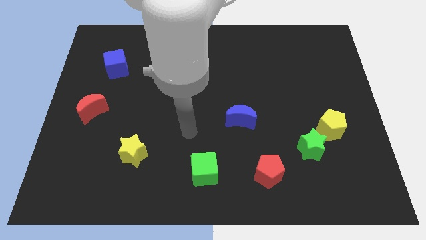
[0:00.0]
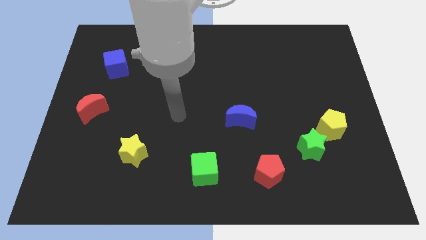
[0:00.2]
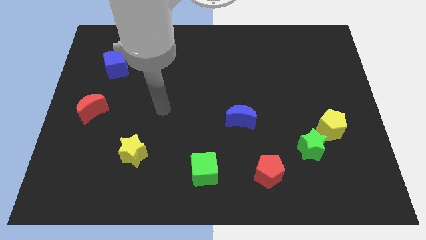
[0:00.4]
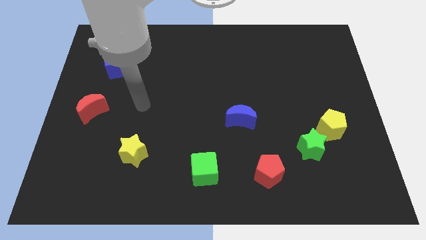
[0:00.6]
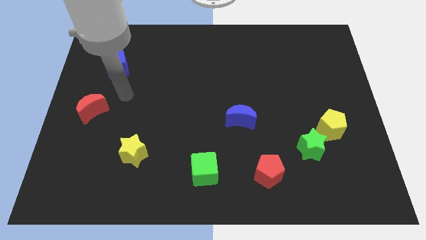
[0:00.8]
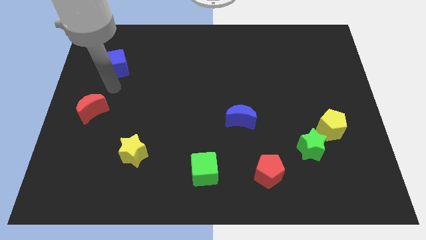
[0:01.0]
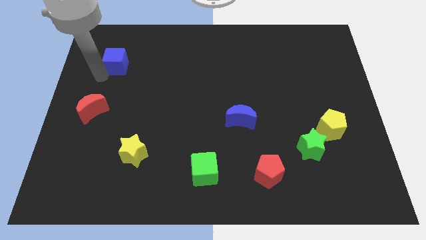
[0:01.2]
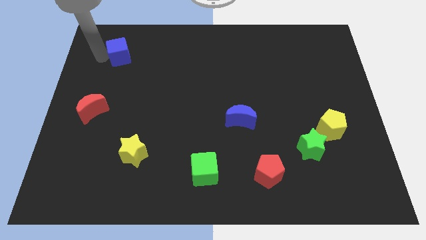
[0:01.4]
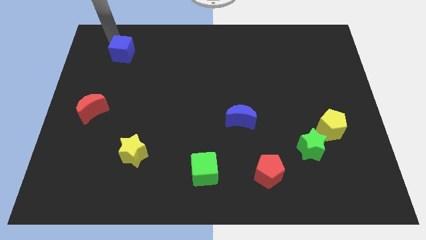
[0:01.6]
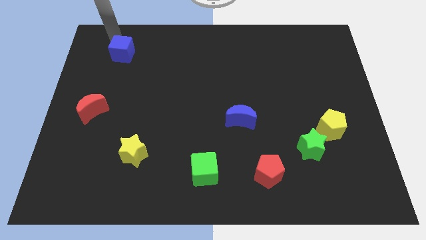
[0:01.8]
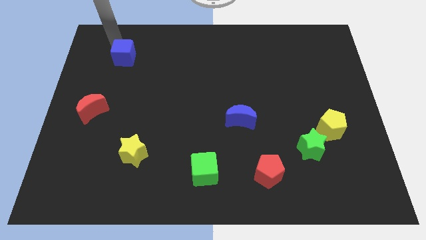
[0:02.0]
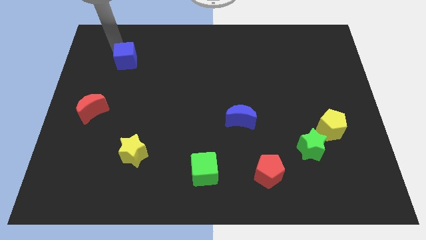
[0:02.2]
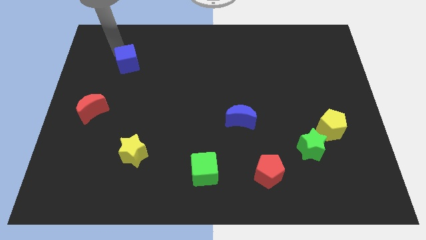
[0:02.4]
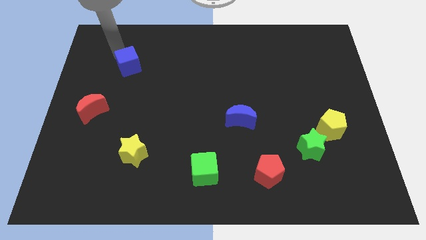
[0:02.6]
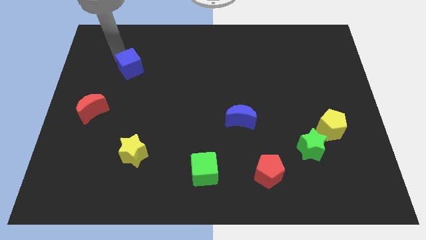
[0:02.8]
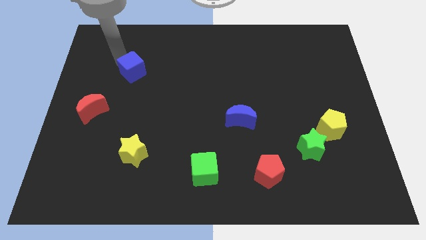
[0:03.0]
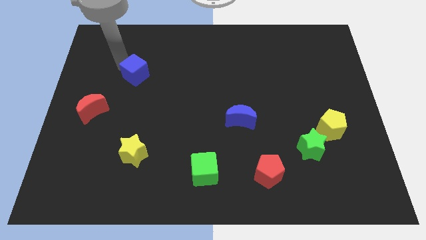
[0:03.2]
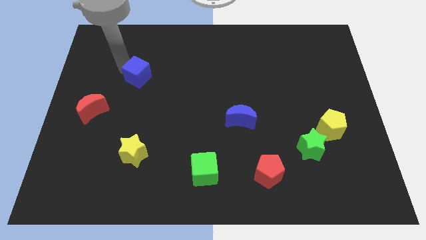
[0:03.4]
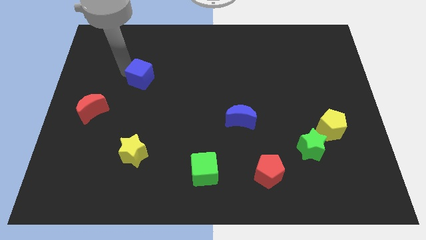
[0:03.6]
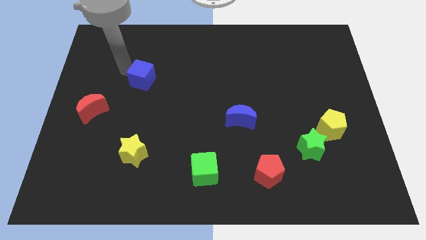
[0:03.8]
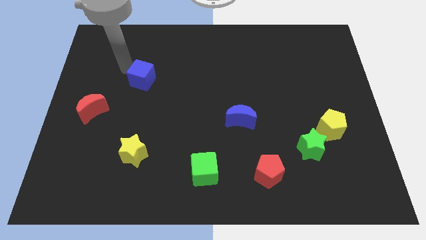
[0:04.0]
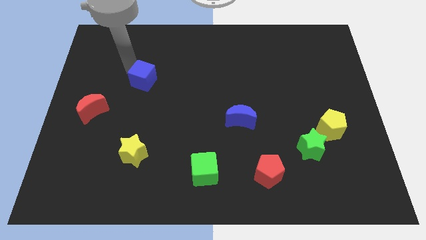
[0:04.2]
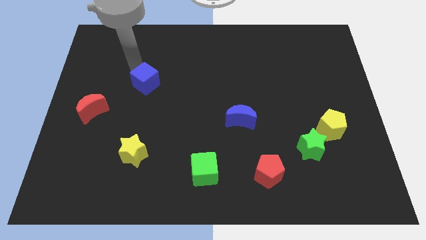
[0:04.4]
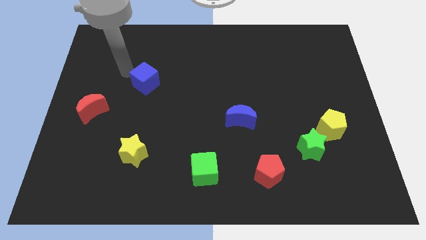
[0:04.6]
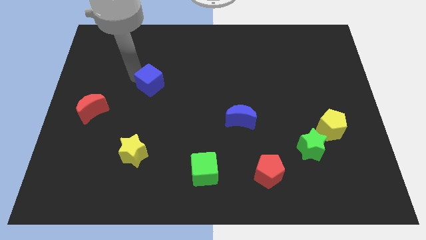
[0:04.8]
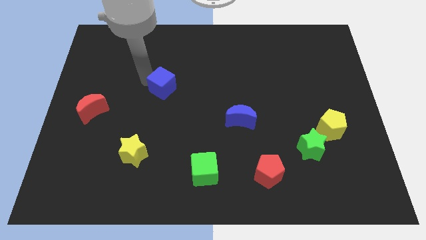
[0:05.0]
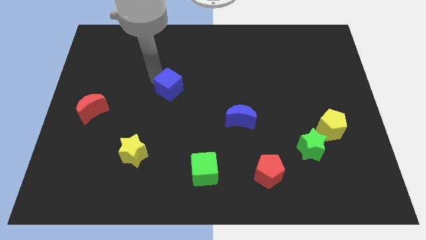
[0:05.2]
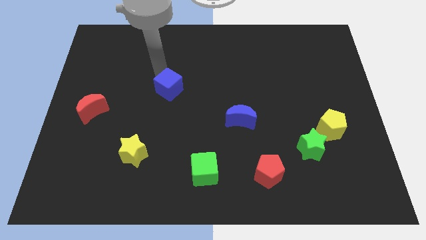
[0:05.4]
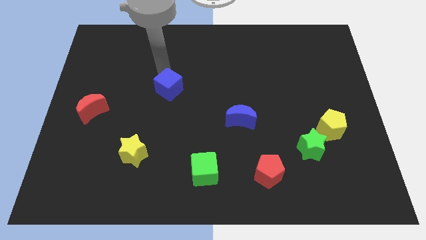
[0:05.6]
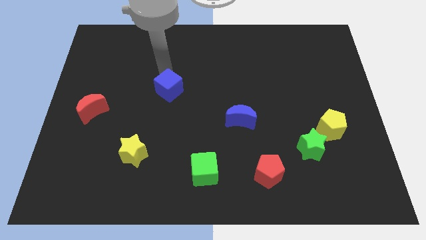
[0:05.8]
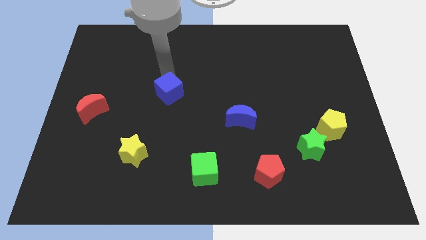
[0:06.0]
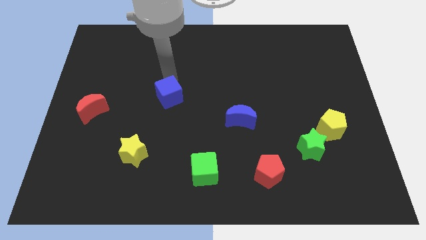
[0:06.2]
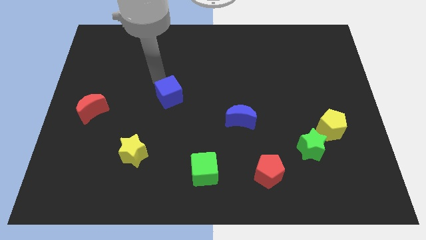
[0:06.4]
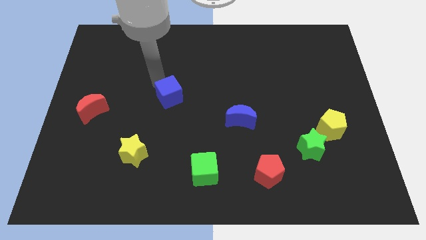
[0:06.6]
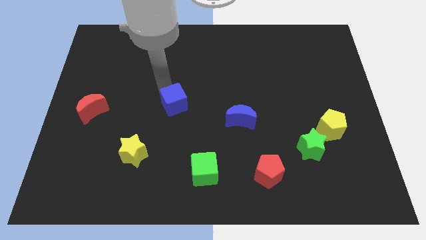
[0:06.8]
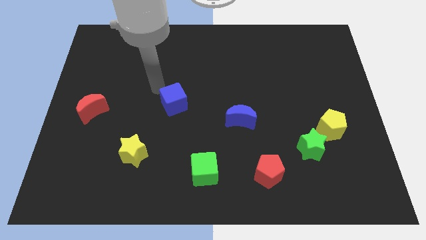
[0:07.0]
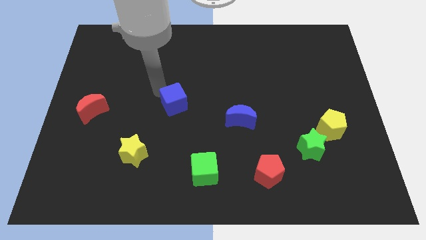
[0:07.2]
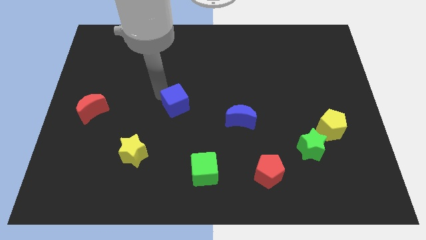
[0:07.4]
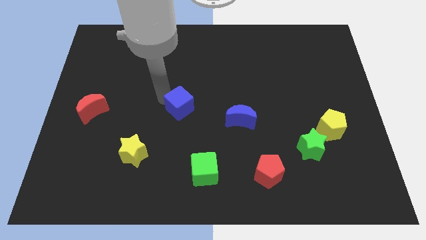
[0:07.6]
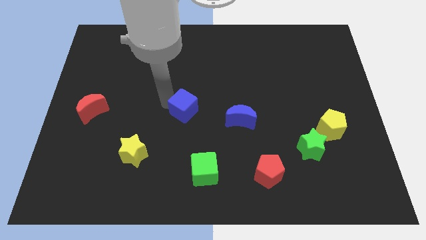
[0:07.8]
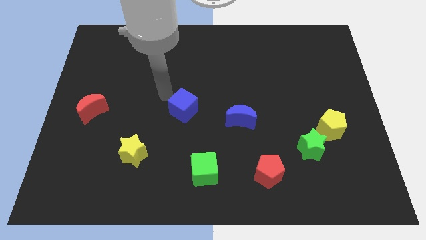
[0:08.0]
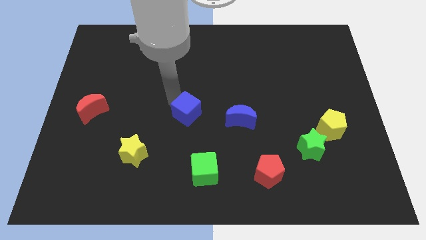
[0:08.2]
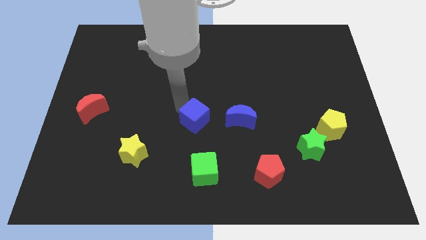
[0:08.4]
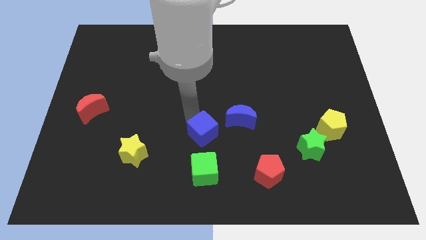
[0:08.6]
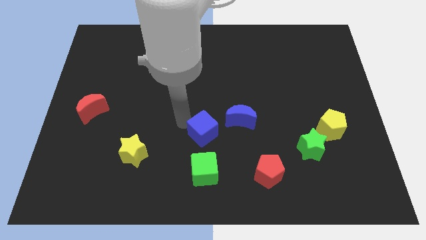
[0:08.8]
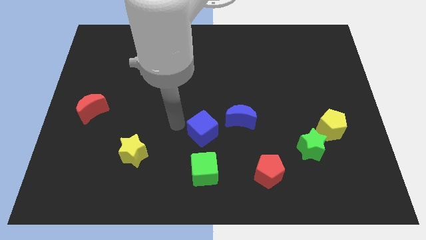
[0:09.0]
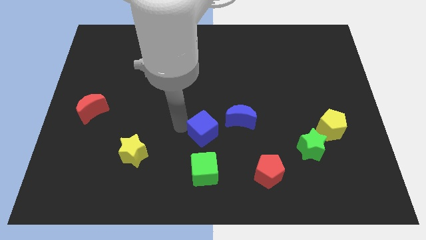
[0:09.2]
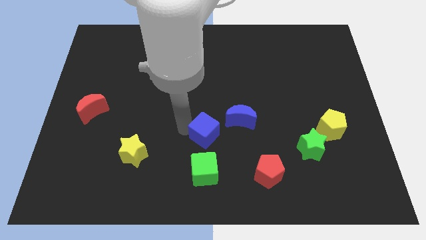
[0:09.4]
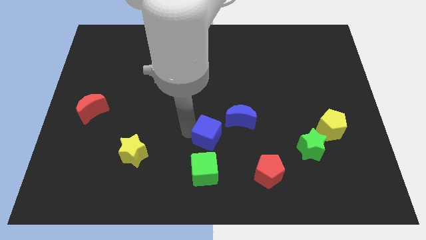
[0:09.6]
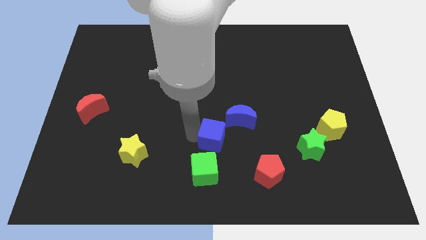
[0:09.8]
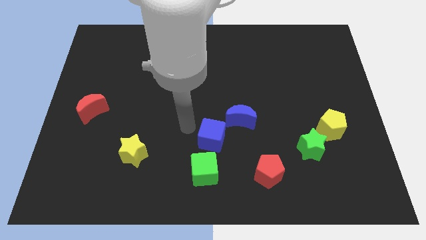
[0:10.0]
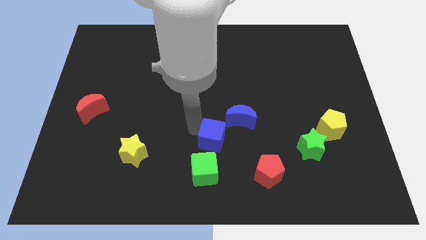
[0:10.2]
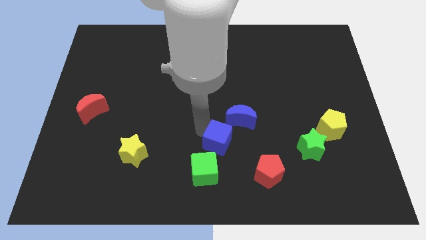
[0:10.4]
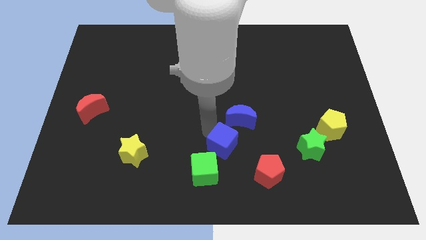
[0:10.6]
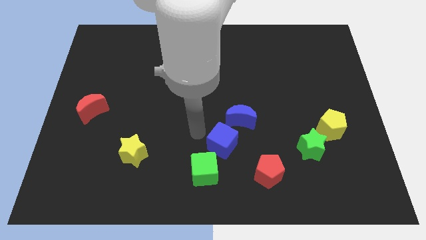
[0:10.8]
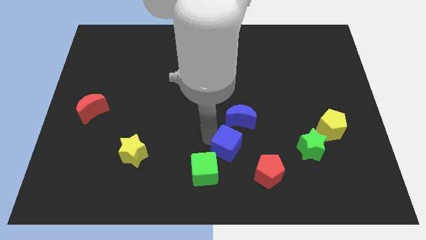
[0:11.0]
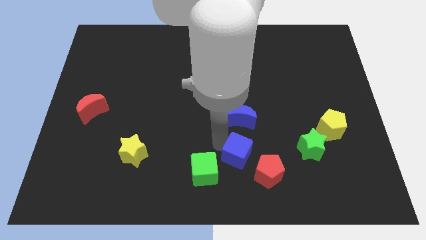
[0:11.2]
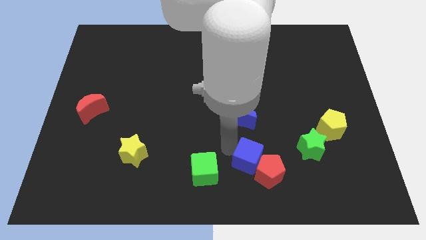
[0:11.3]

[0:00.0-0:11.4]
slide the blue cube close to the red pentagon

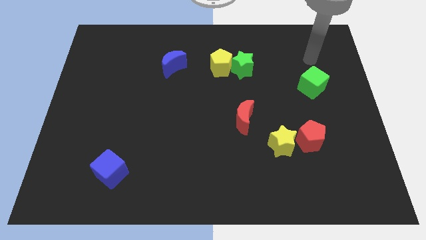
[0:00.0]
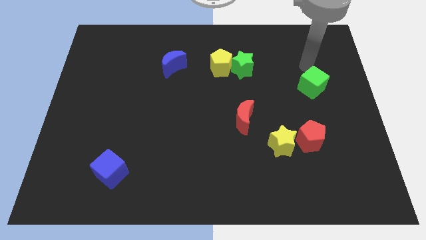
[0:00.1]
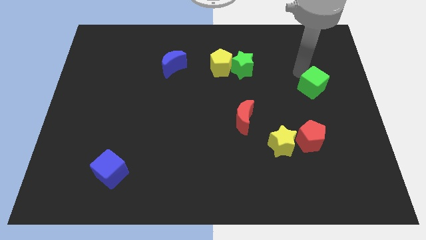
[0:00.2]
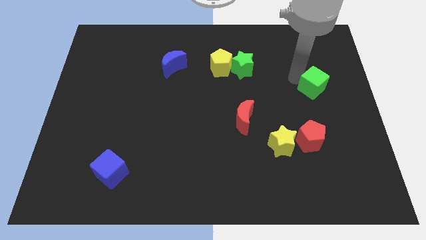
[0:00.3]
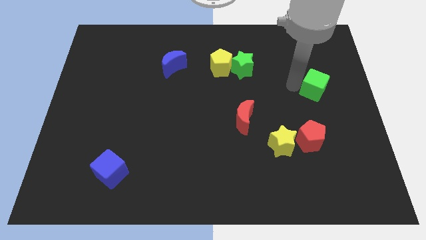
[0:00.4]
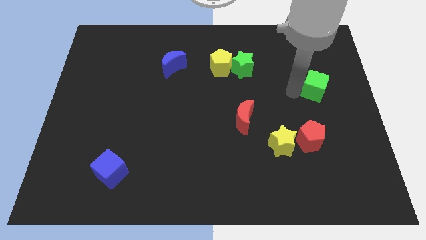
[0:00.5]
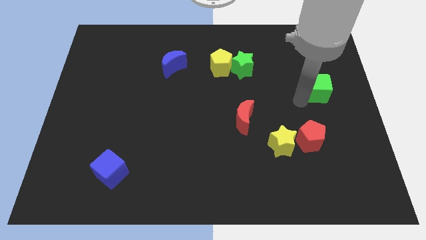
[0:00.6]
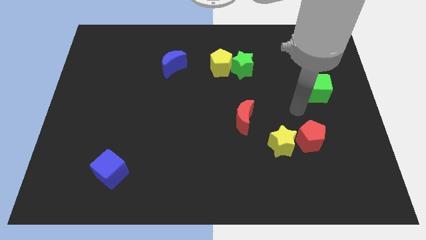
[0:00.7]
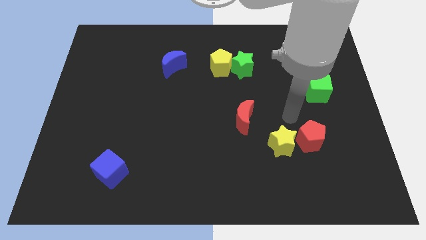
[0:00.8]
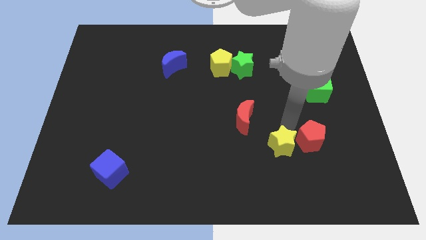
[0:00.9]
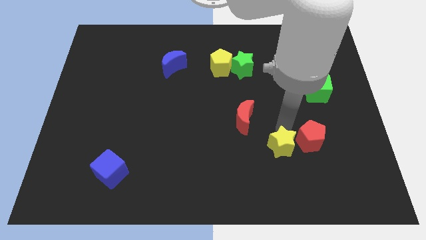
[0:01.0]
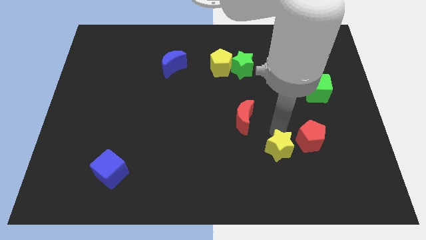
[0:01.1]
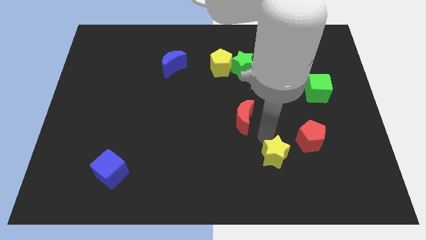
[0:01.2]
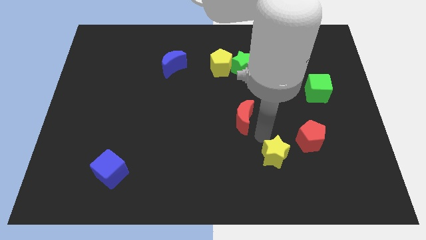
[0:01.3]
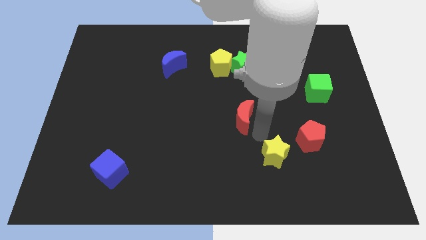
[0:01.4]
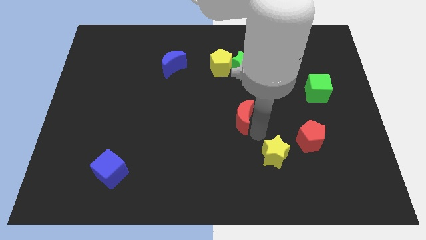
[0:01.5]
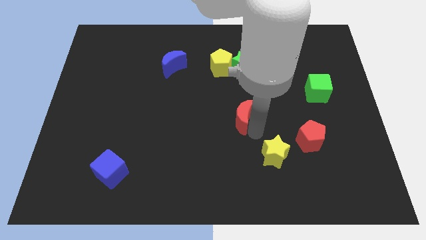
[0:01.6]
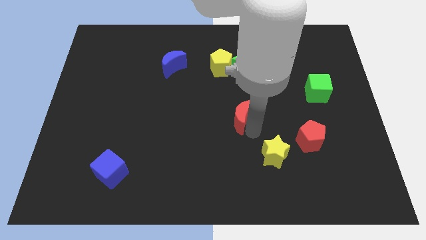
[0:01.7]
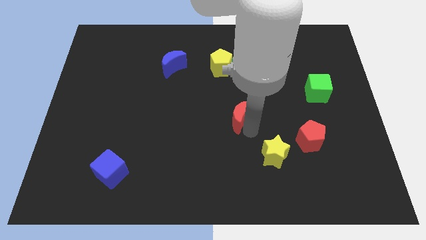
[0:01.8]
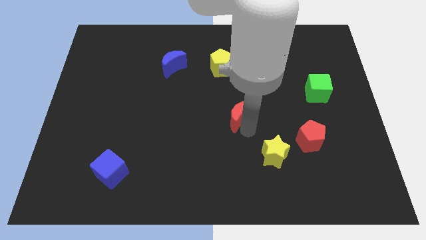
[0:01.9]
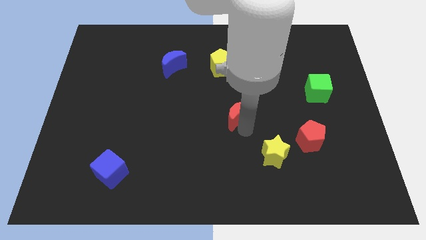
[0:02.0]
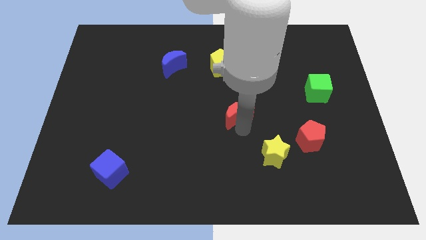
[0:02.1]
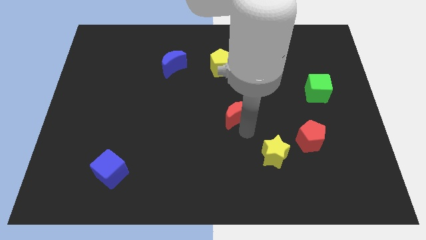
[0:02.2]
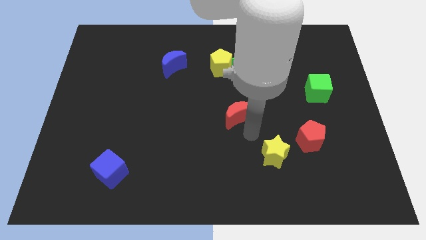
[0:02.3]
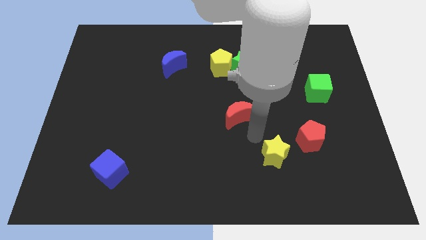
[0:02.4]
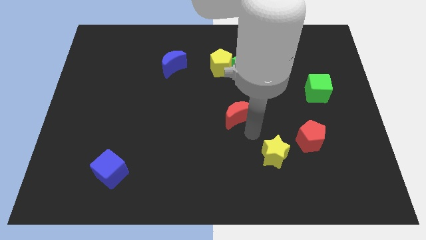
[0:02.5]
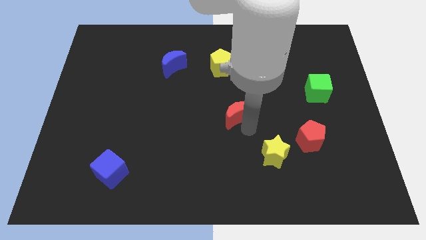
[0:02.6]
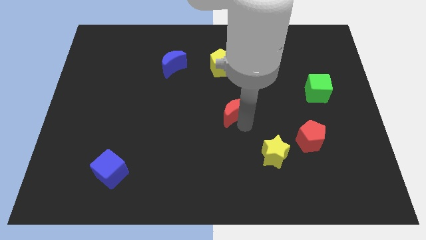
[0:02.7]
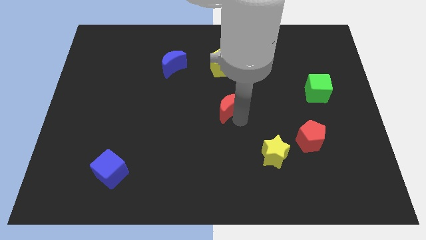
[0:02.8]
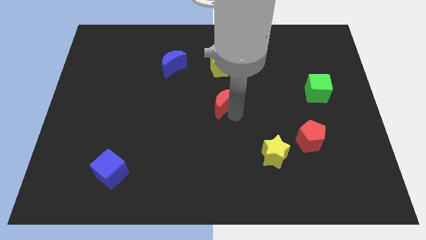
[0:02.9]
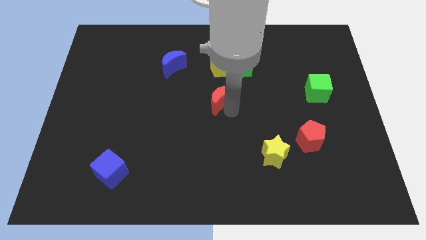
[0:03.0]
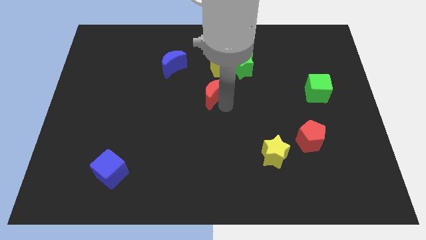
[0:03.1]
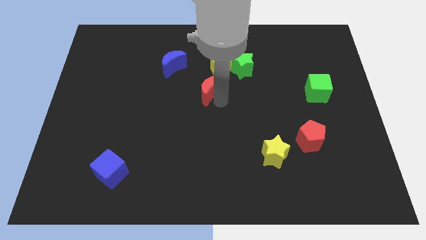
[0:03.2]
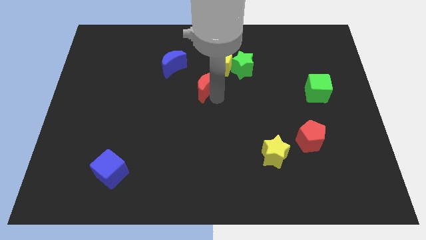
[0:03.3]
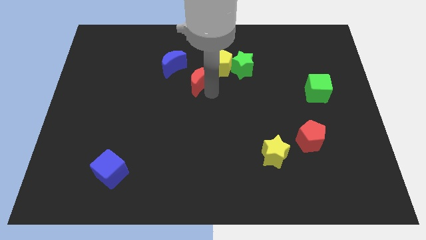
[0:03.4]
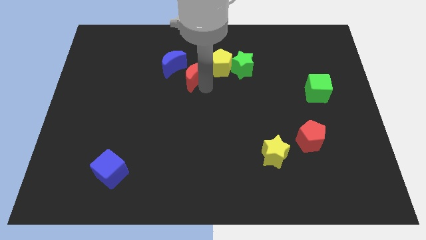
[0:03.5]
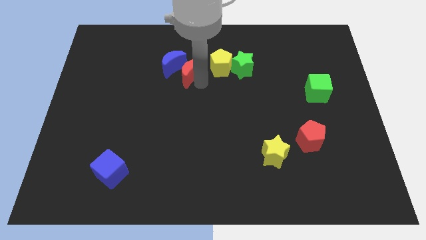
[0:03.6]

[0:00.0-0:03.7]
put the red moon to the blue moon
